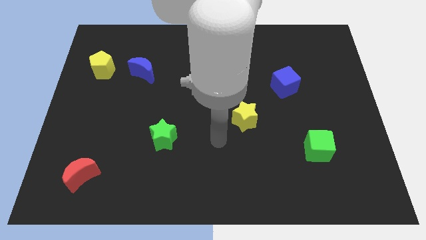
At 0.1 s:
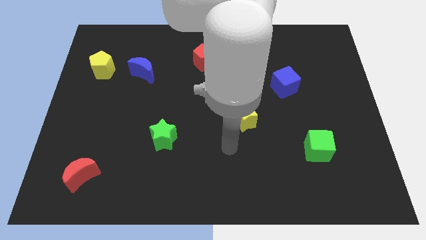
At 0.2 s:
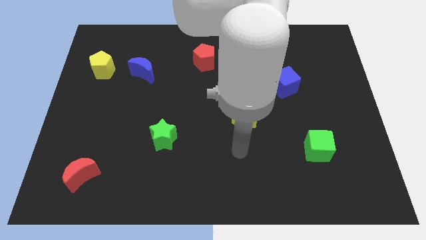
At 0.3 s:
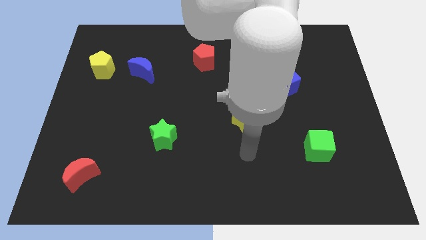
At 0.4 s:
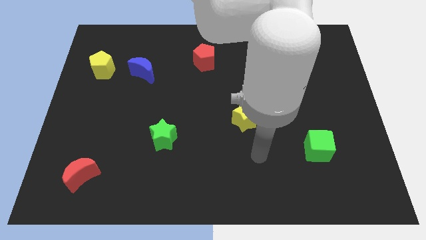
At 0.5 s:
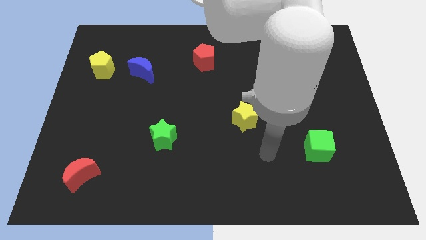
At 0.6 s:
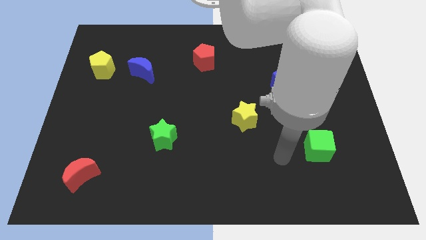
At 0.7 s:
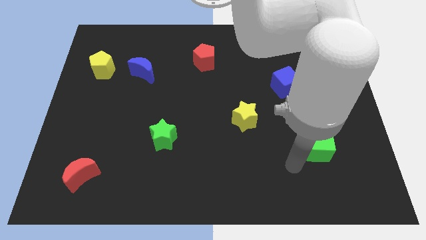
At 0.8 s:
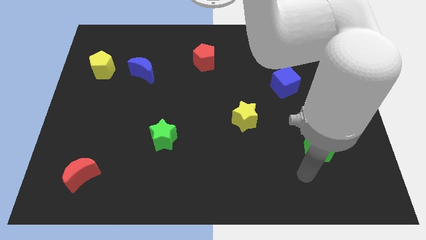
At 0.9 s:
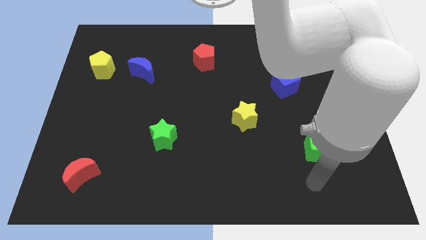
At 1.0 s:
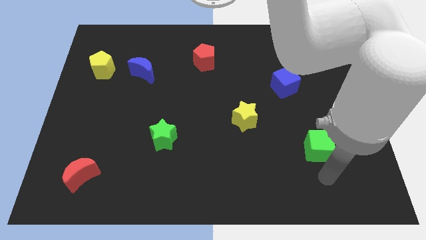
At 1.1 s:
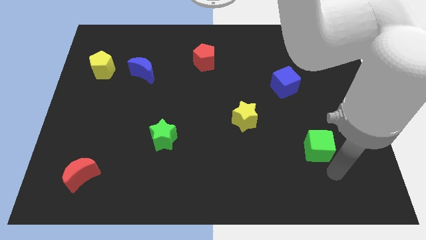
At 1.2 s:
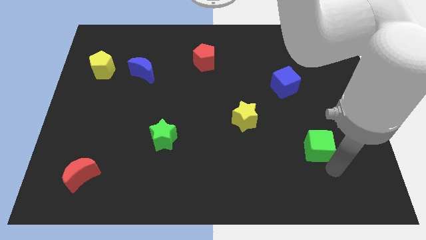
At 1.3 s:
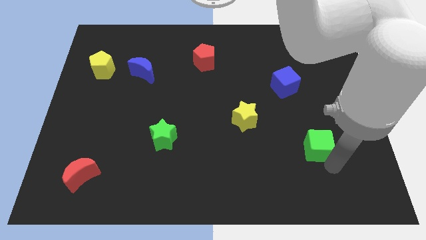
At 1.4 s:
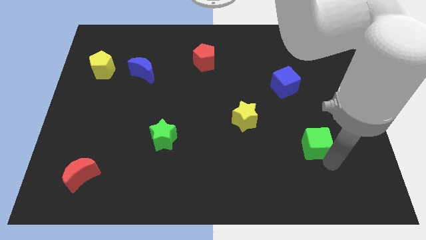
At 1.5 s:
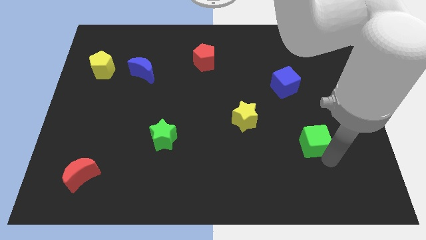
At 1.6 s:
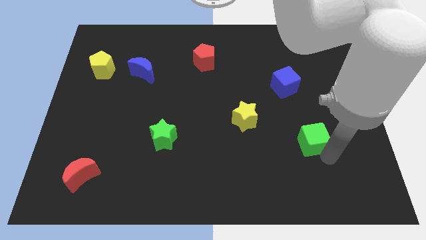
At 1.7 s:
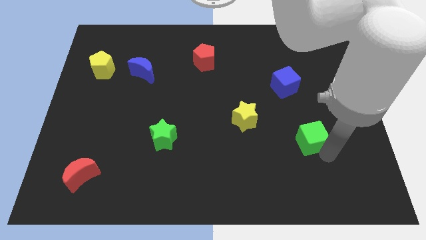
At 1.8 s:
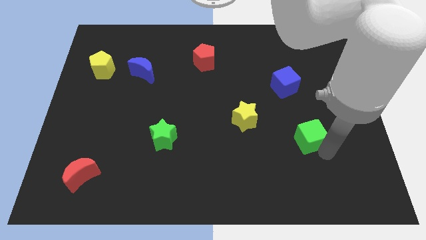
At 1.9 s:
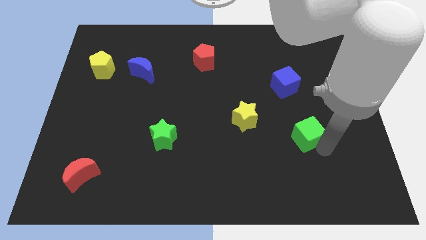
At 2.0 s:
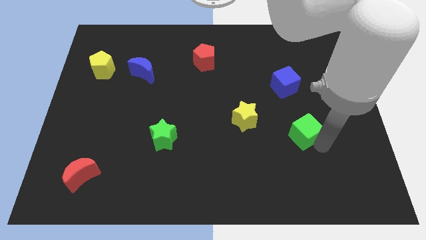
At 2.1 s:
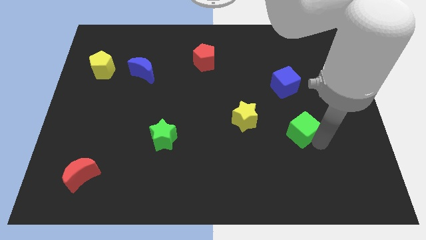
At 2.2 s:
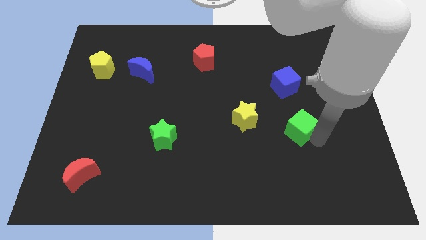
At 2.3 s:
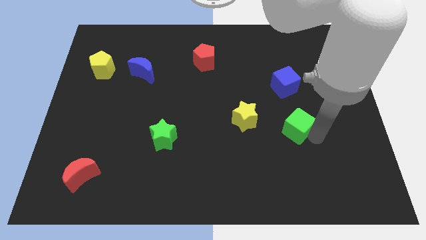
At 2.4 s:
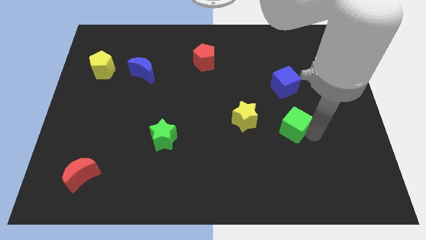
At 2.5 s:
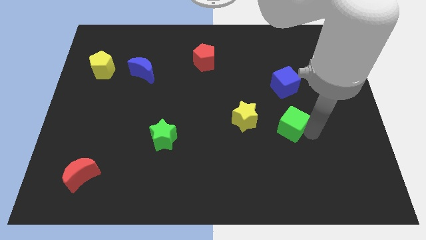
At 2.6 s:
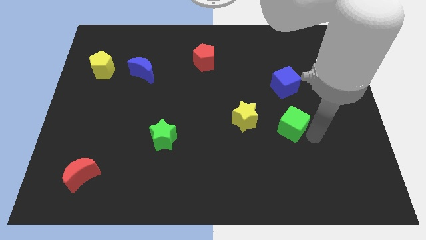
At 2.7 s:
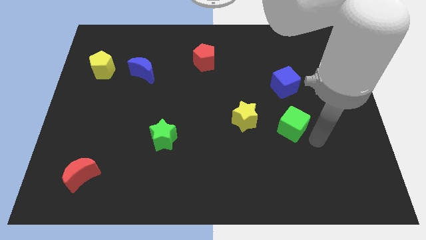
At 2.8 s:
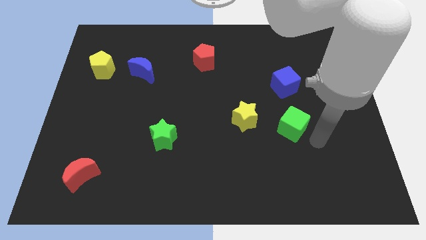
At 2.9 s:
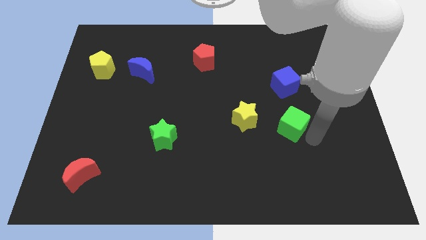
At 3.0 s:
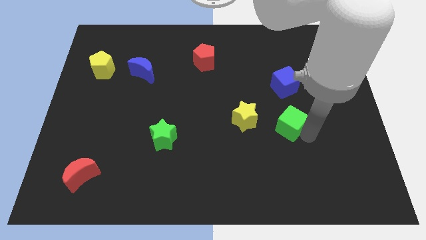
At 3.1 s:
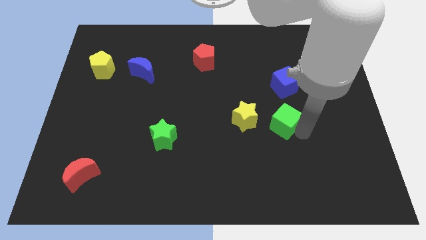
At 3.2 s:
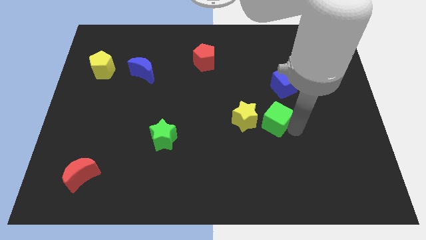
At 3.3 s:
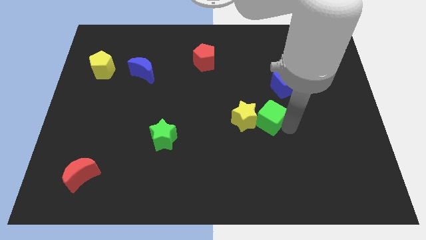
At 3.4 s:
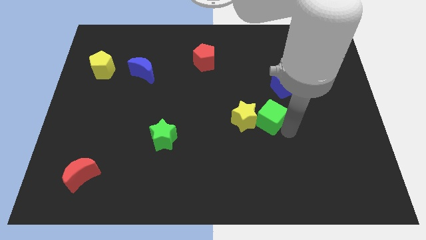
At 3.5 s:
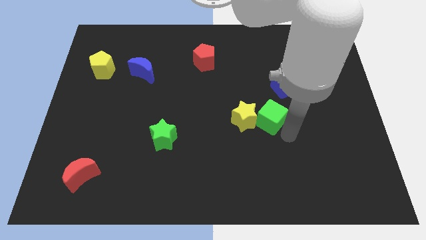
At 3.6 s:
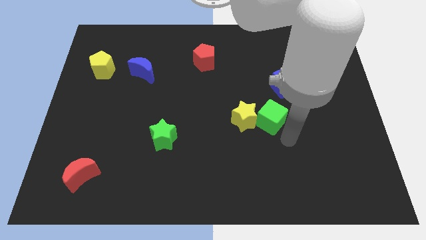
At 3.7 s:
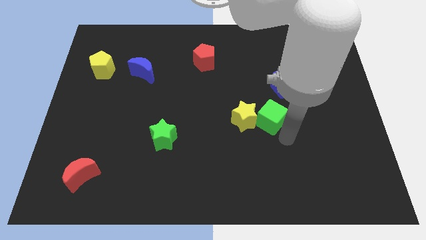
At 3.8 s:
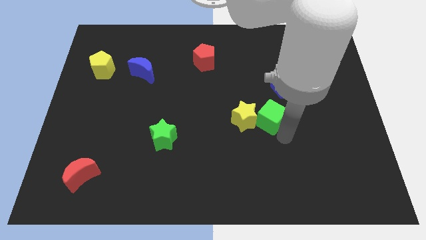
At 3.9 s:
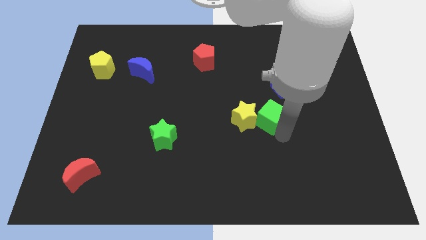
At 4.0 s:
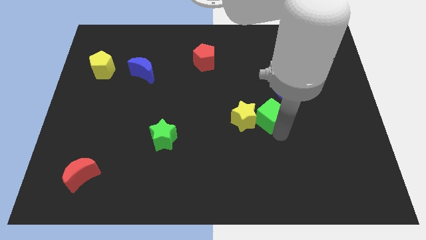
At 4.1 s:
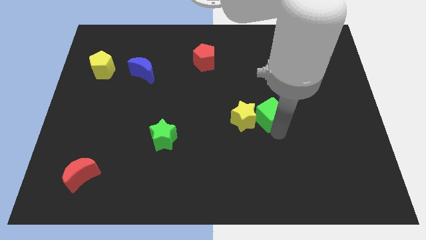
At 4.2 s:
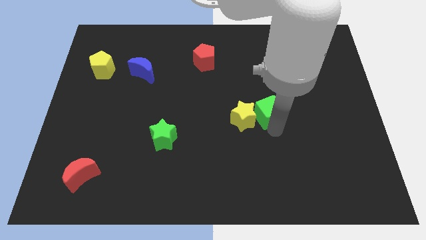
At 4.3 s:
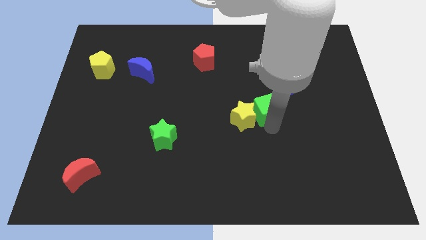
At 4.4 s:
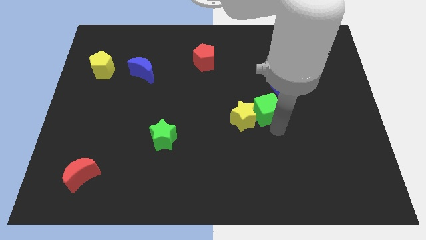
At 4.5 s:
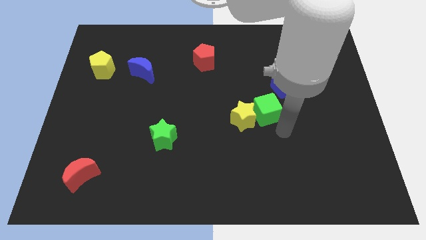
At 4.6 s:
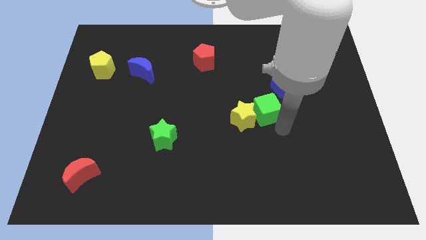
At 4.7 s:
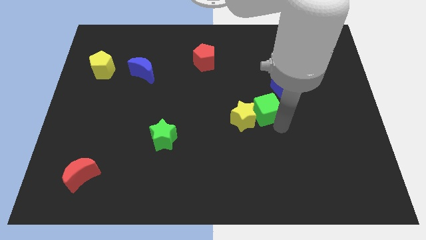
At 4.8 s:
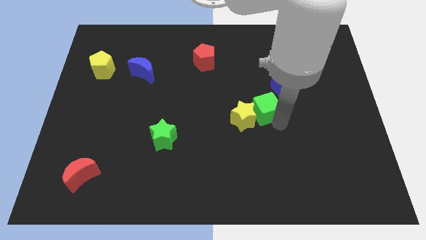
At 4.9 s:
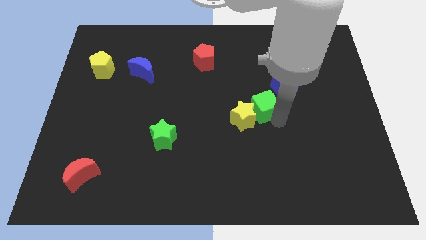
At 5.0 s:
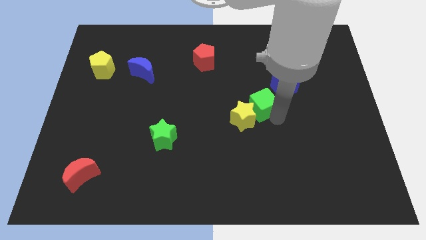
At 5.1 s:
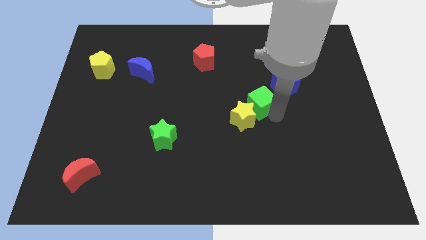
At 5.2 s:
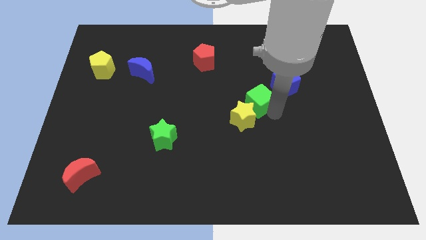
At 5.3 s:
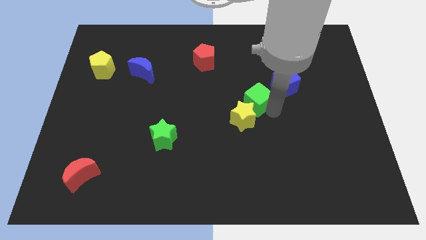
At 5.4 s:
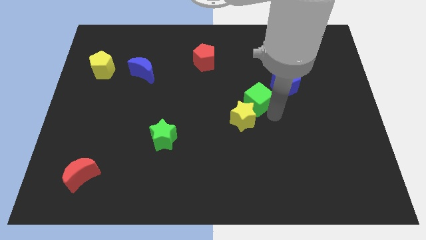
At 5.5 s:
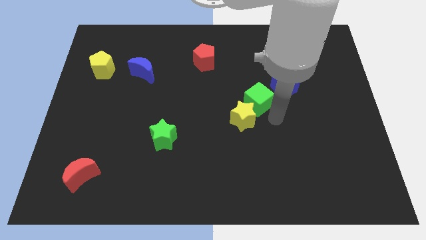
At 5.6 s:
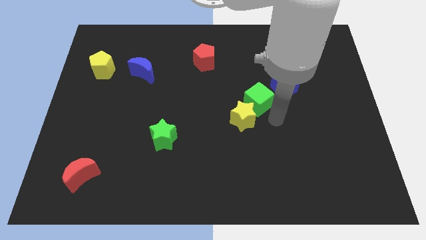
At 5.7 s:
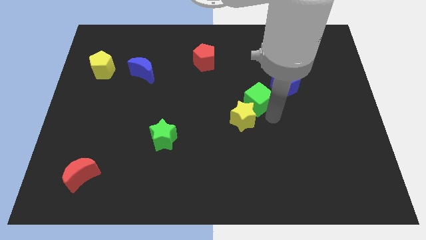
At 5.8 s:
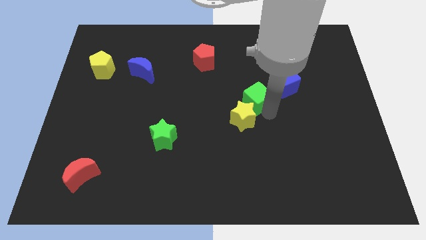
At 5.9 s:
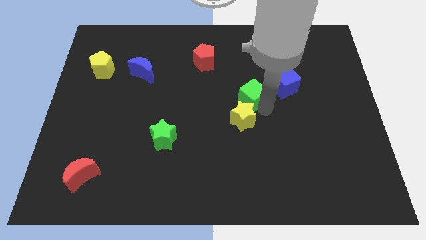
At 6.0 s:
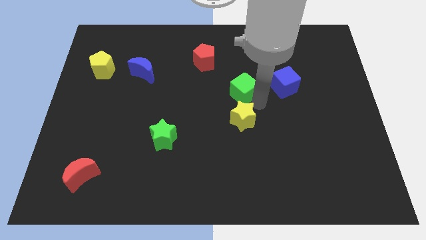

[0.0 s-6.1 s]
slide the green cube diagonally up and left

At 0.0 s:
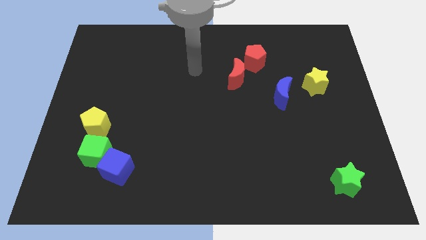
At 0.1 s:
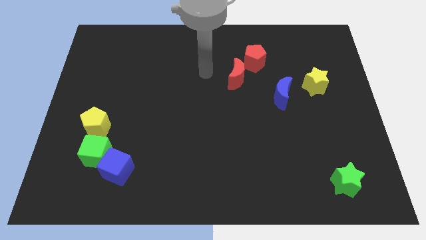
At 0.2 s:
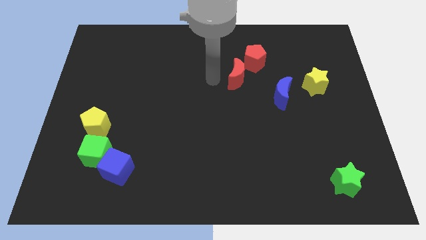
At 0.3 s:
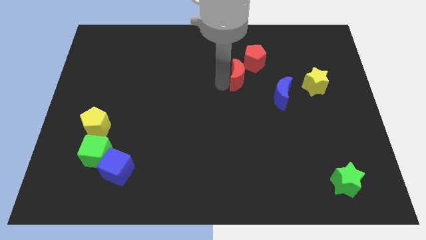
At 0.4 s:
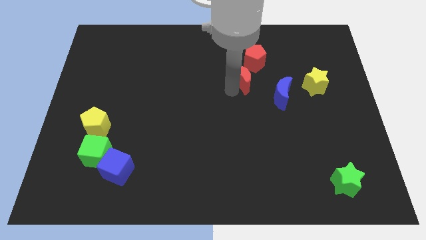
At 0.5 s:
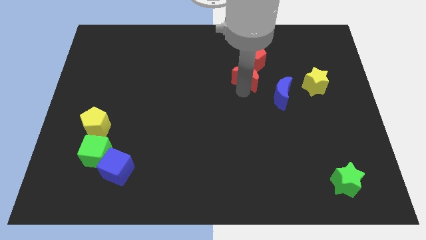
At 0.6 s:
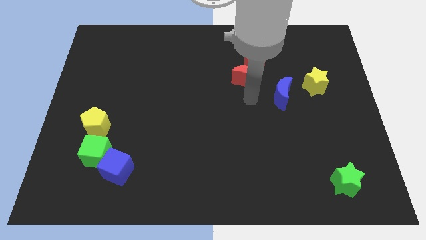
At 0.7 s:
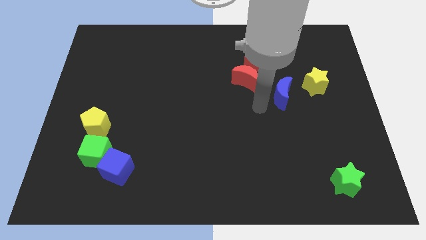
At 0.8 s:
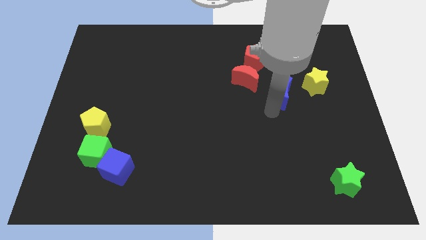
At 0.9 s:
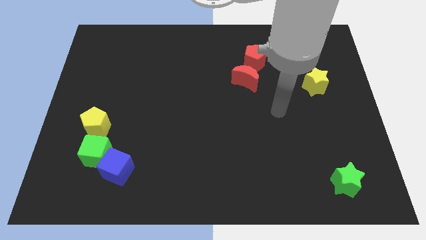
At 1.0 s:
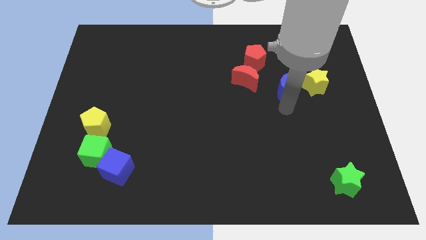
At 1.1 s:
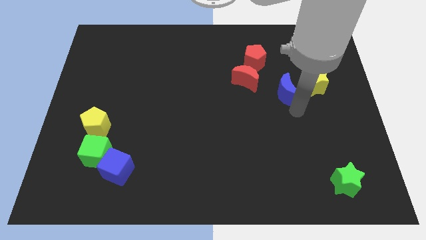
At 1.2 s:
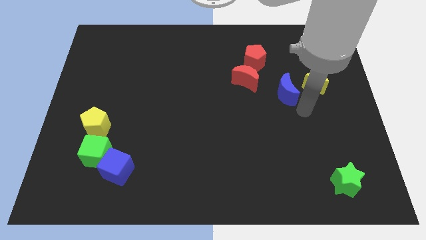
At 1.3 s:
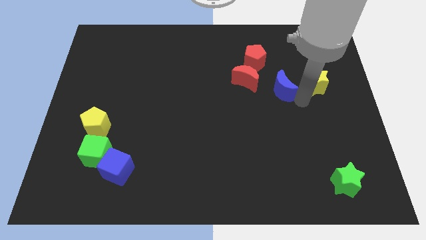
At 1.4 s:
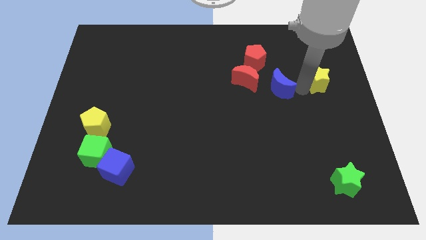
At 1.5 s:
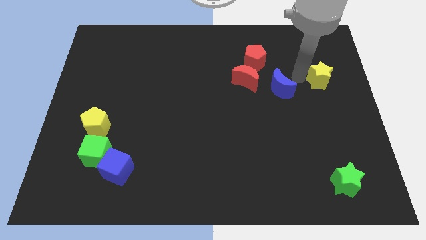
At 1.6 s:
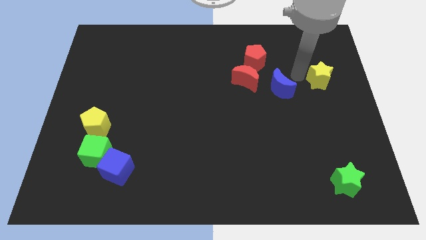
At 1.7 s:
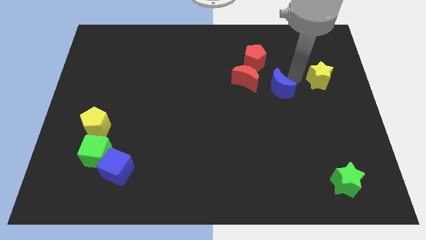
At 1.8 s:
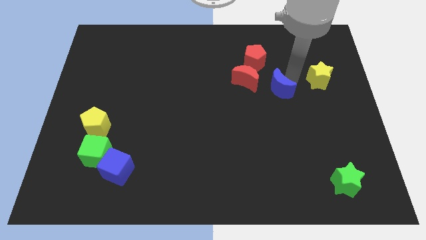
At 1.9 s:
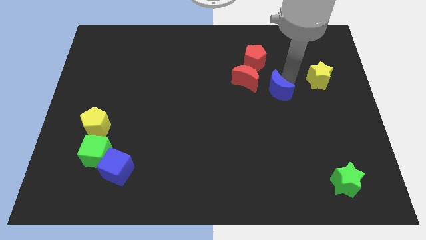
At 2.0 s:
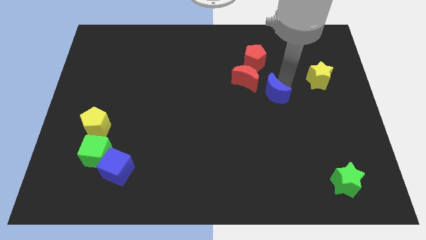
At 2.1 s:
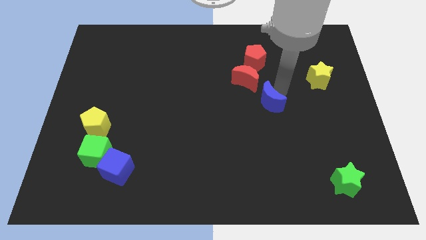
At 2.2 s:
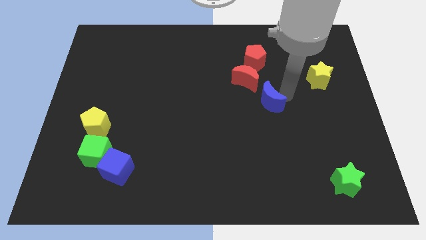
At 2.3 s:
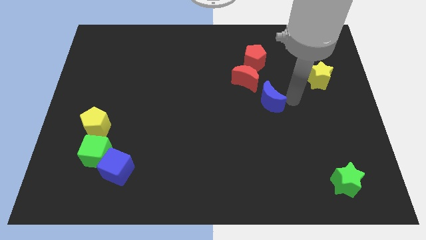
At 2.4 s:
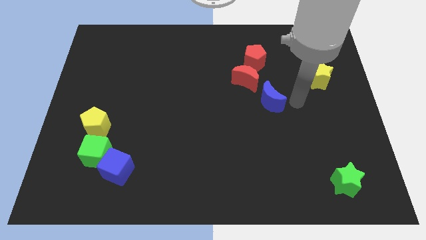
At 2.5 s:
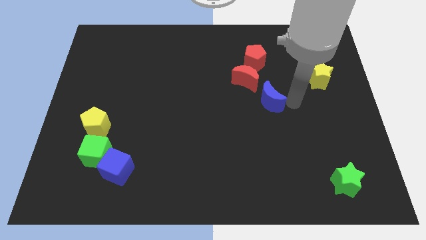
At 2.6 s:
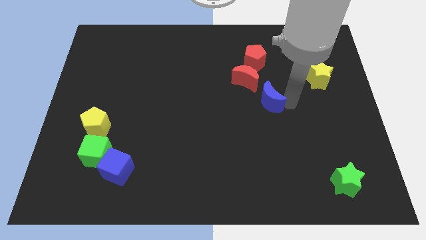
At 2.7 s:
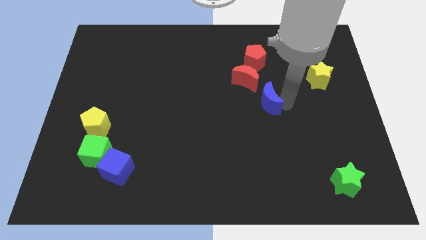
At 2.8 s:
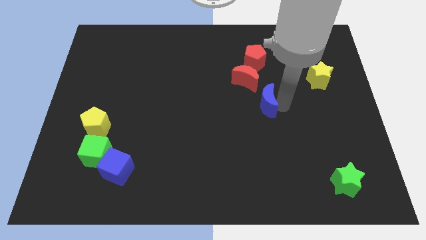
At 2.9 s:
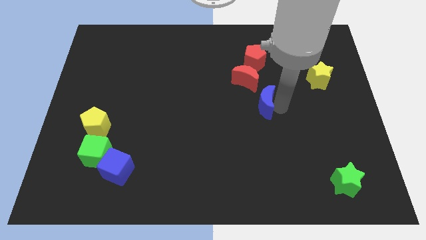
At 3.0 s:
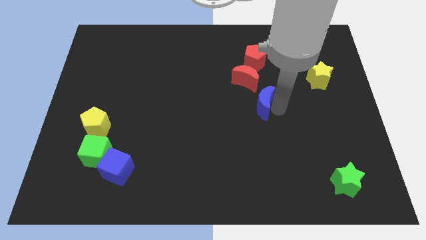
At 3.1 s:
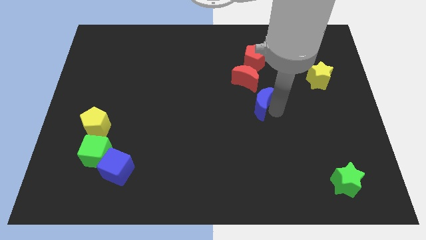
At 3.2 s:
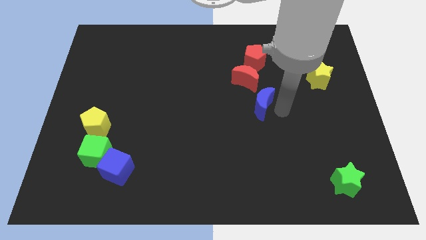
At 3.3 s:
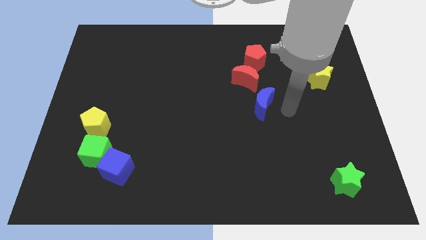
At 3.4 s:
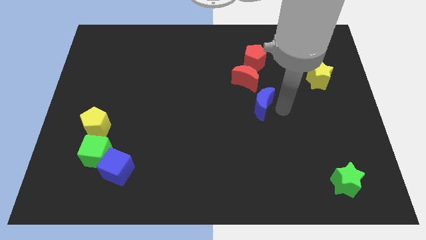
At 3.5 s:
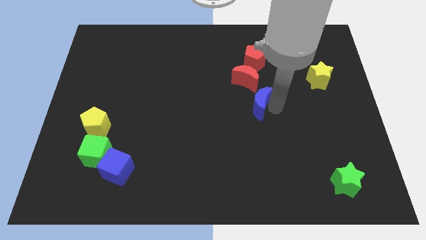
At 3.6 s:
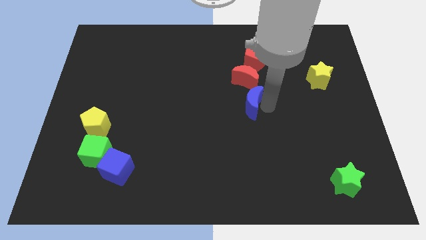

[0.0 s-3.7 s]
push the blue moon to the left a bit
